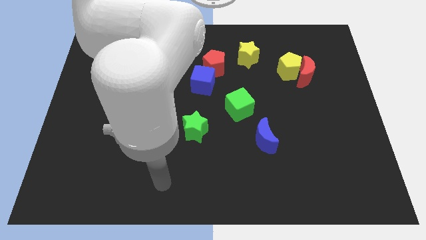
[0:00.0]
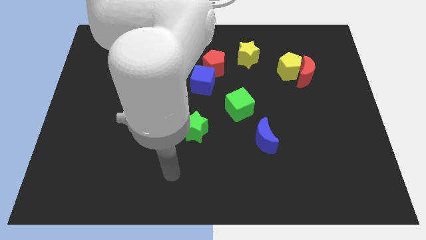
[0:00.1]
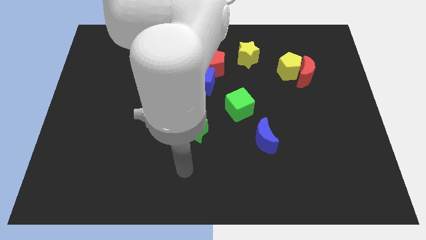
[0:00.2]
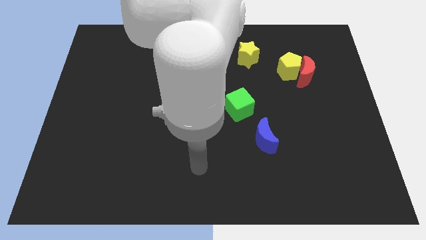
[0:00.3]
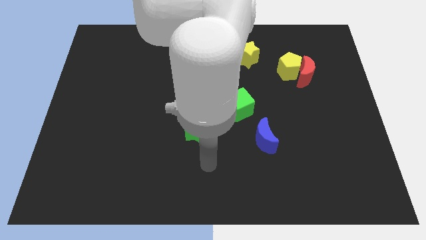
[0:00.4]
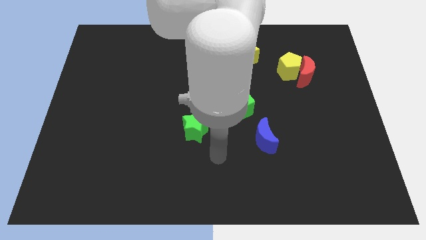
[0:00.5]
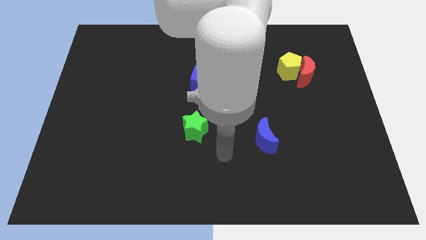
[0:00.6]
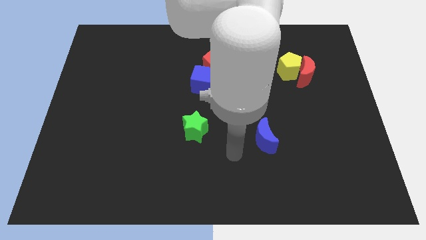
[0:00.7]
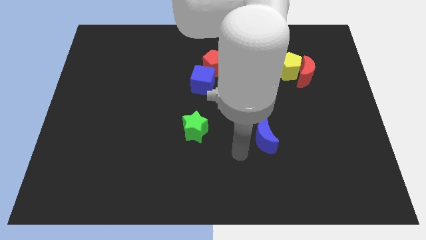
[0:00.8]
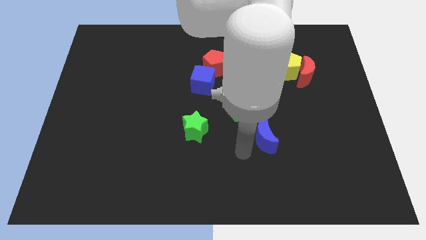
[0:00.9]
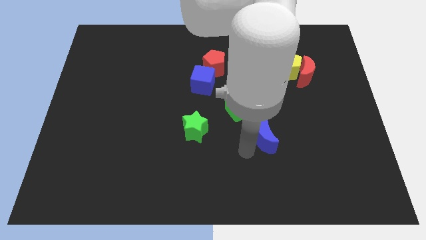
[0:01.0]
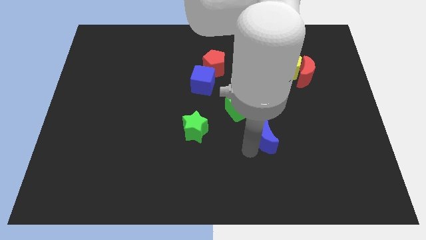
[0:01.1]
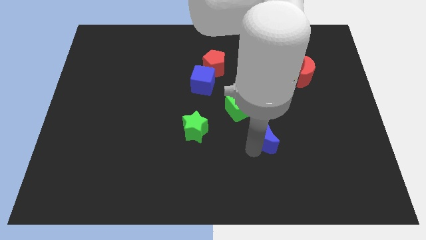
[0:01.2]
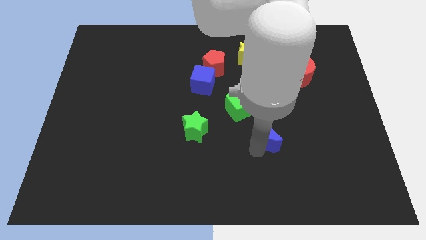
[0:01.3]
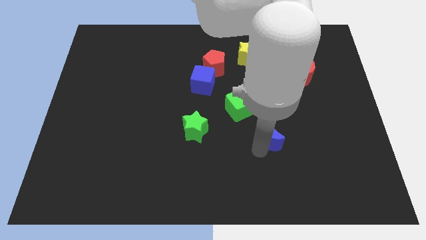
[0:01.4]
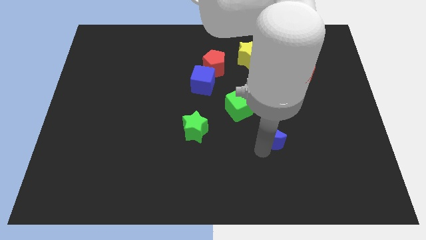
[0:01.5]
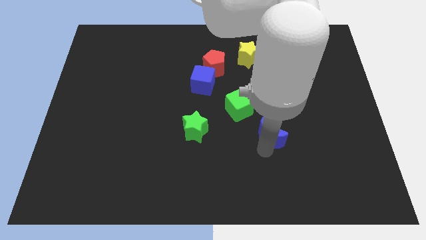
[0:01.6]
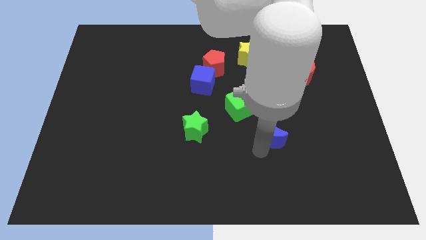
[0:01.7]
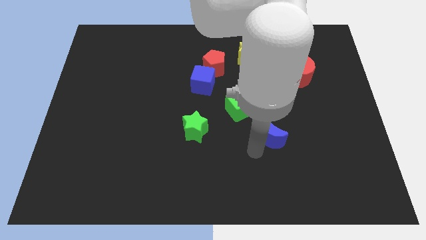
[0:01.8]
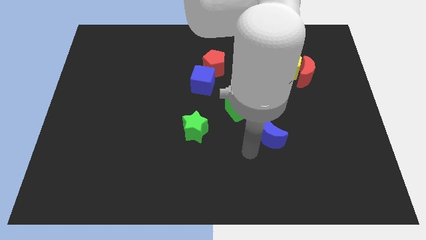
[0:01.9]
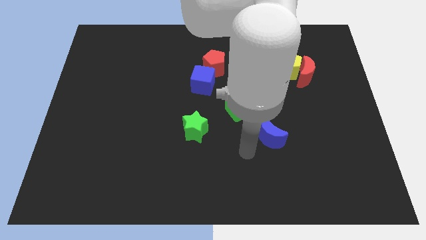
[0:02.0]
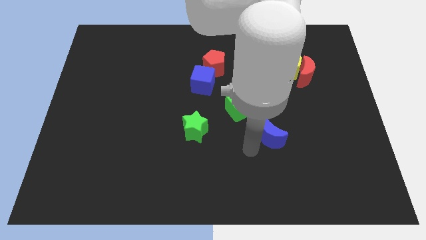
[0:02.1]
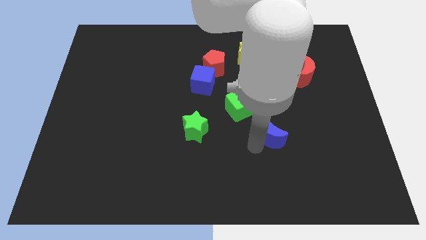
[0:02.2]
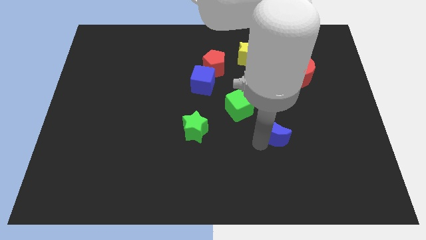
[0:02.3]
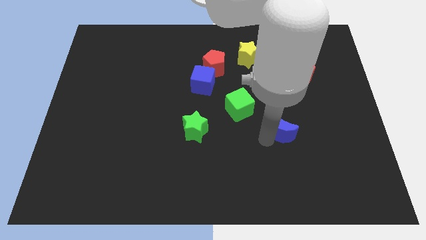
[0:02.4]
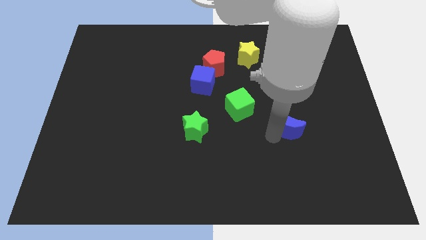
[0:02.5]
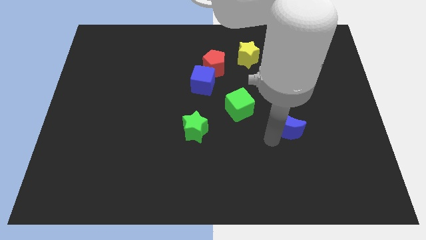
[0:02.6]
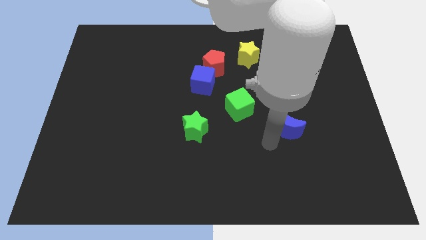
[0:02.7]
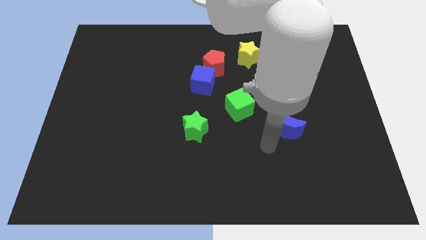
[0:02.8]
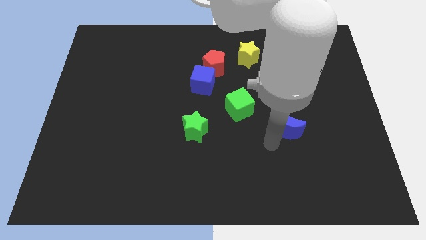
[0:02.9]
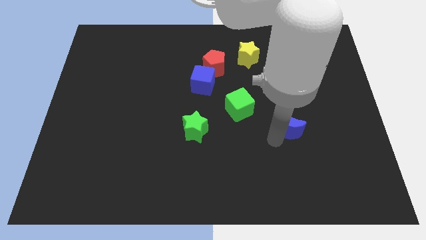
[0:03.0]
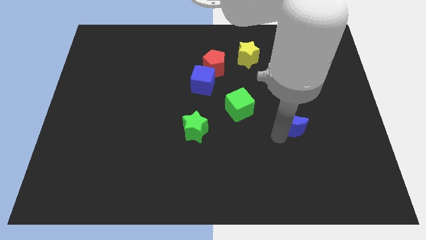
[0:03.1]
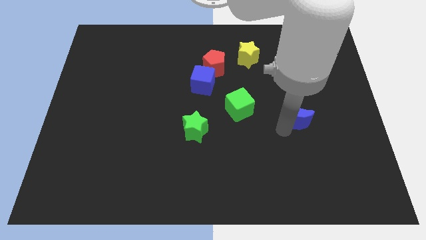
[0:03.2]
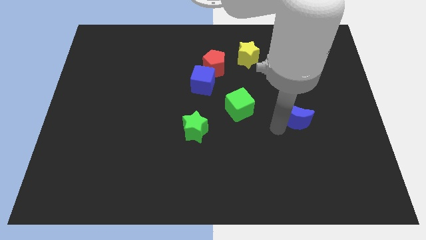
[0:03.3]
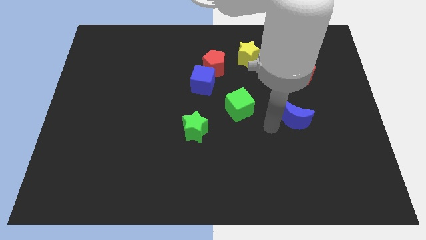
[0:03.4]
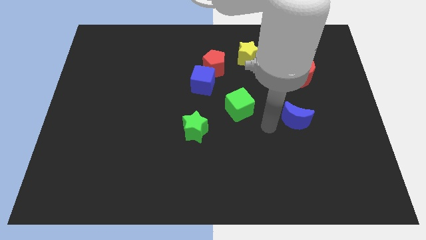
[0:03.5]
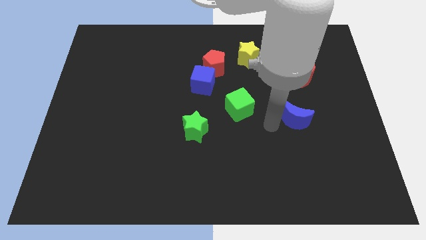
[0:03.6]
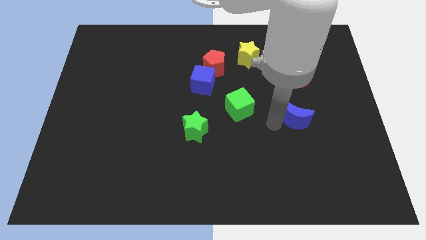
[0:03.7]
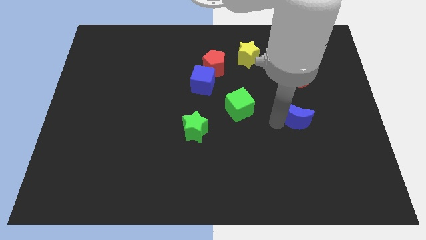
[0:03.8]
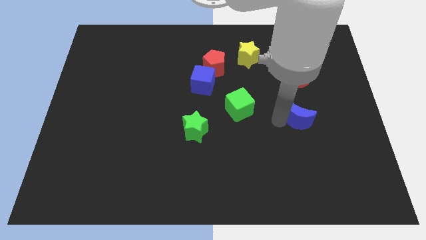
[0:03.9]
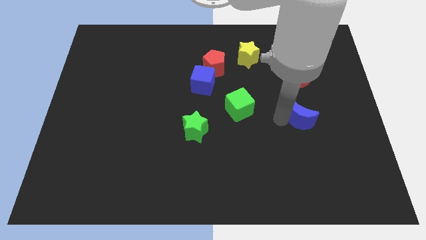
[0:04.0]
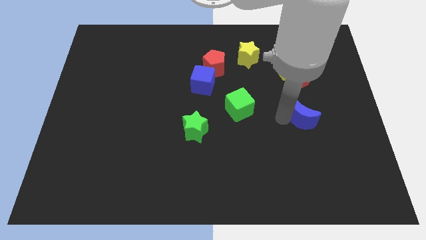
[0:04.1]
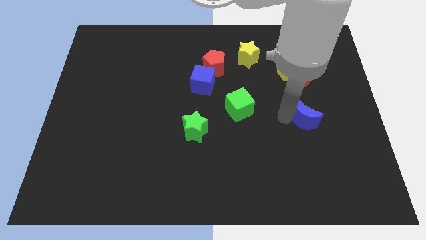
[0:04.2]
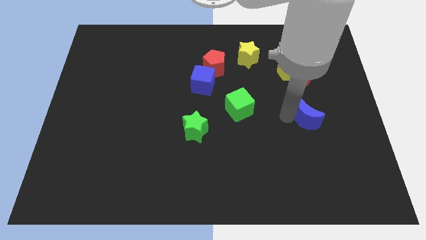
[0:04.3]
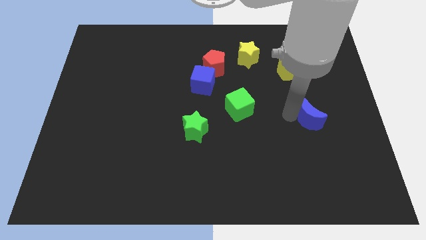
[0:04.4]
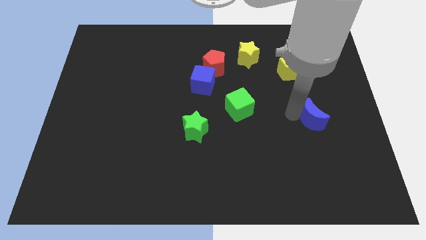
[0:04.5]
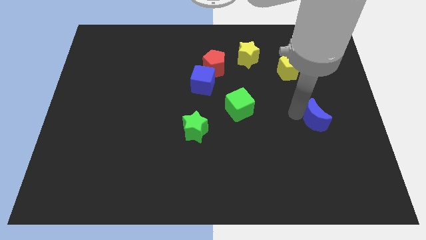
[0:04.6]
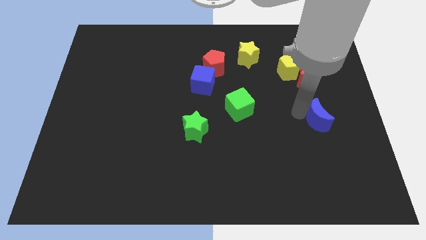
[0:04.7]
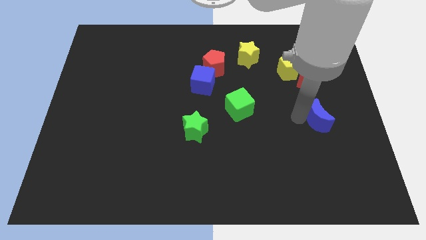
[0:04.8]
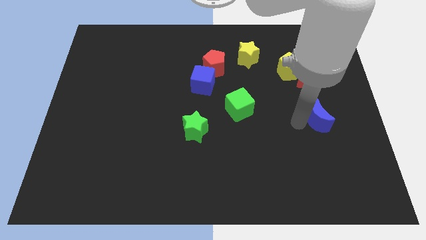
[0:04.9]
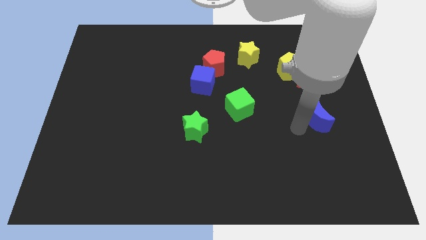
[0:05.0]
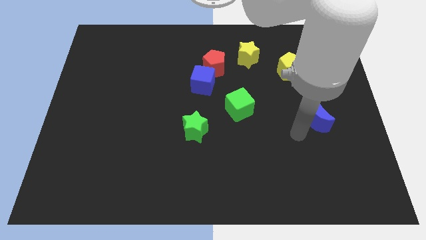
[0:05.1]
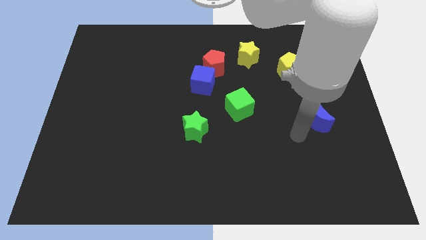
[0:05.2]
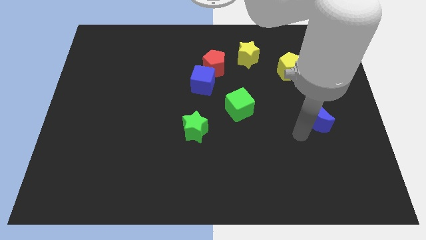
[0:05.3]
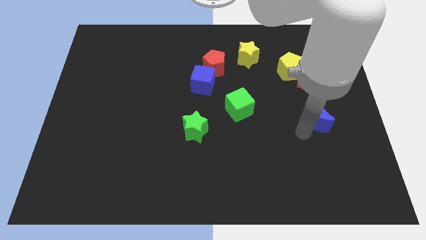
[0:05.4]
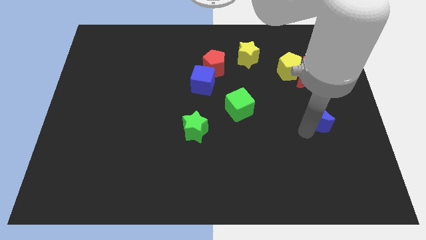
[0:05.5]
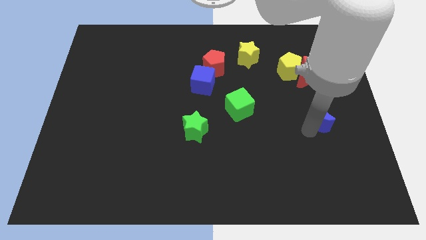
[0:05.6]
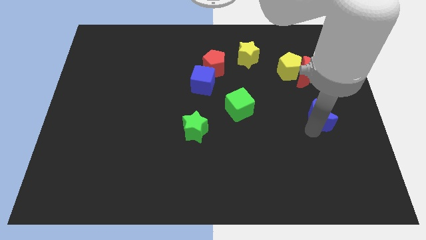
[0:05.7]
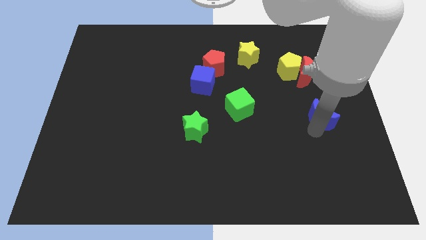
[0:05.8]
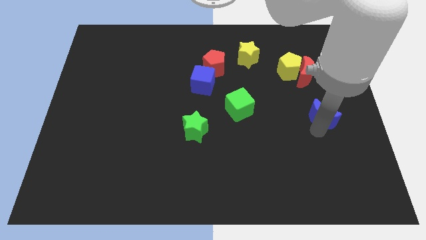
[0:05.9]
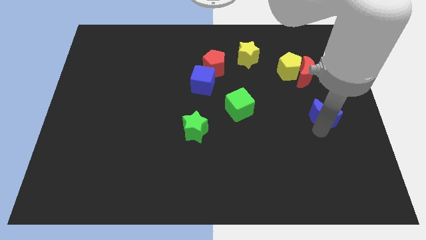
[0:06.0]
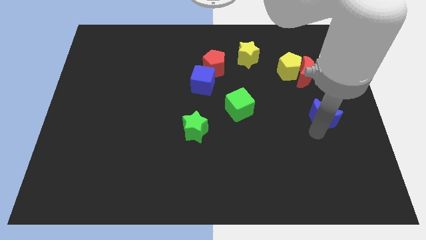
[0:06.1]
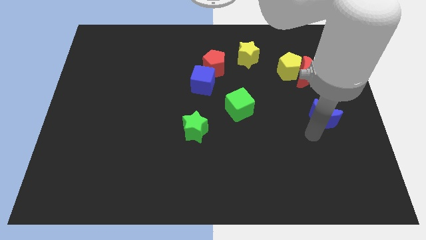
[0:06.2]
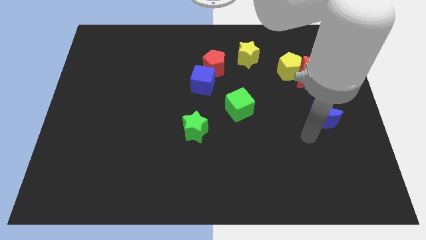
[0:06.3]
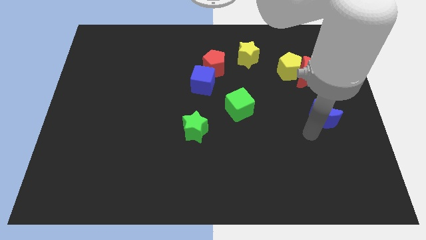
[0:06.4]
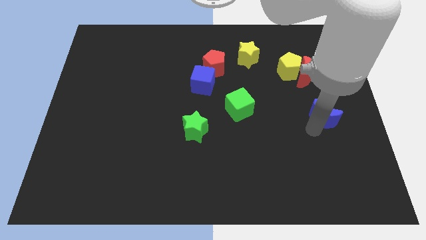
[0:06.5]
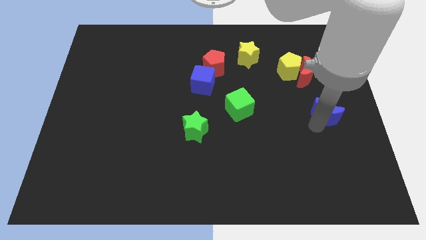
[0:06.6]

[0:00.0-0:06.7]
slide the blue moon to the right side of the board
